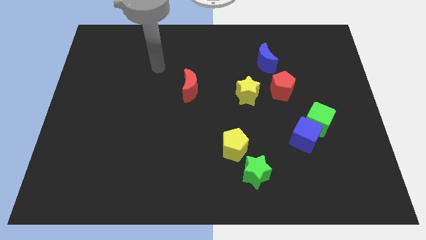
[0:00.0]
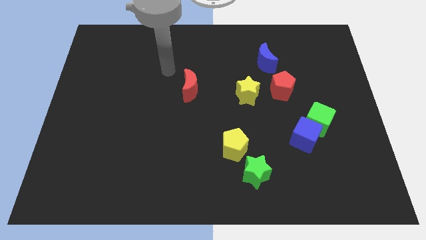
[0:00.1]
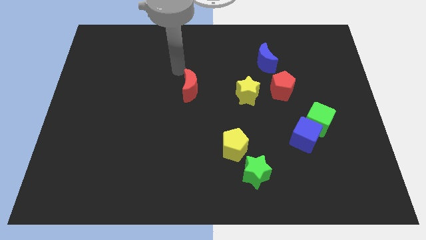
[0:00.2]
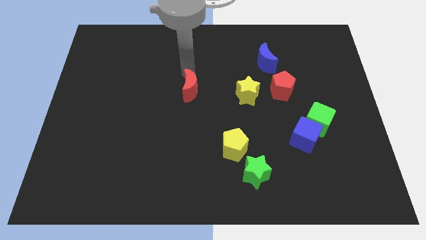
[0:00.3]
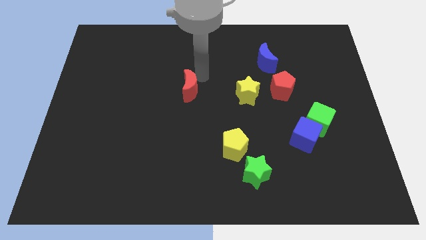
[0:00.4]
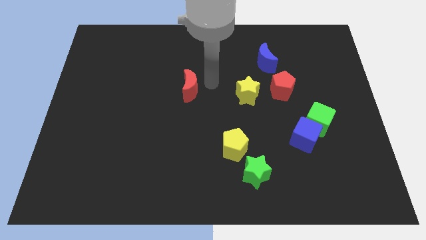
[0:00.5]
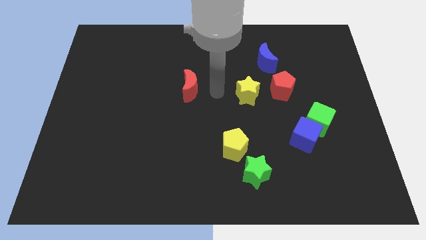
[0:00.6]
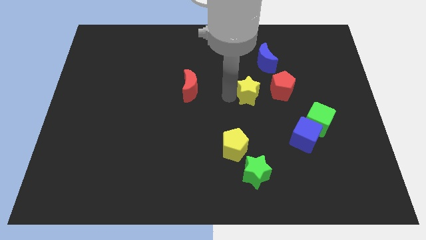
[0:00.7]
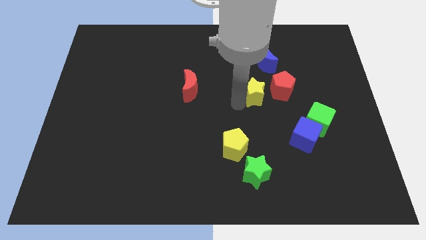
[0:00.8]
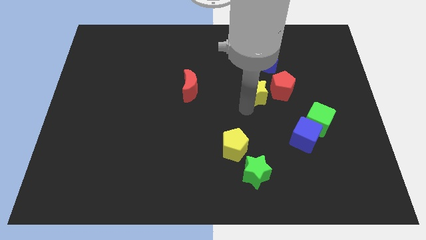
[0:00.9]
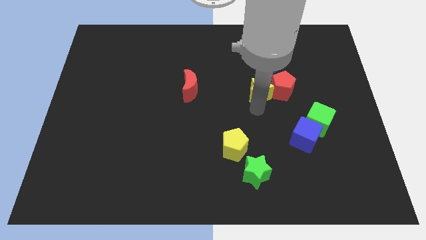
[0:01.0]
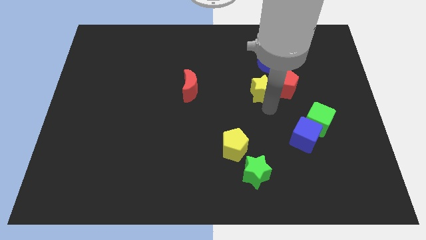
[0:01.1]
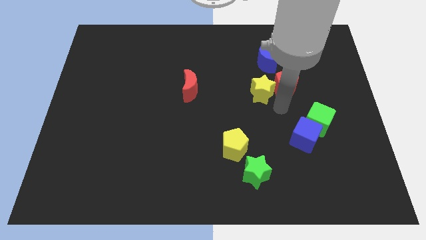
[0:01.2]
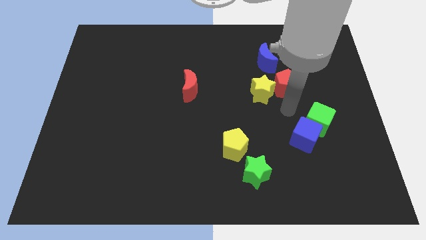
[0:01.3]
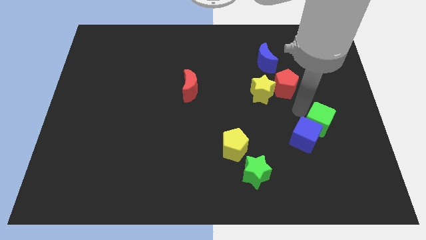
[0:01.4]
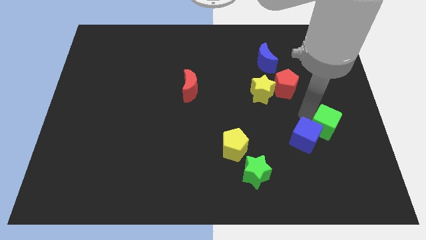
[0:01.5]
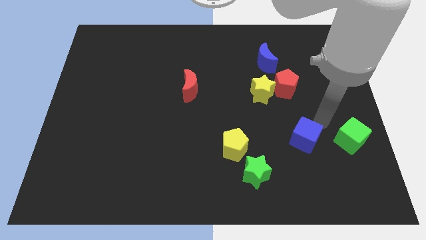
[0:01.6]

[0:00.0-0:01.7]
separate the blue cube from the green cube

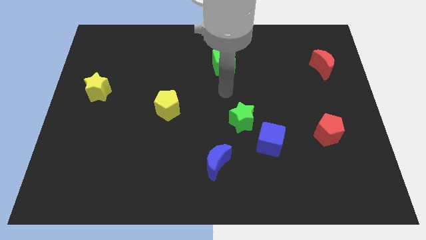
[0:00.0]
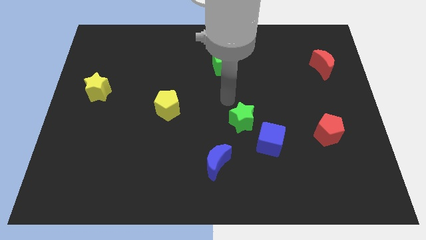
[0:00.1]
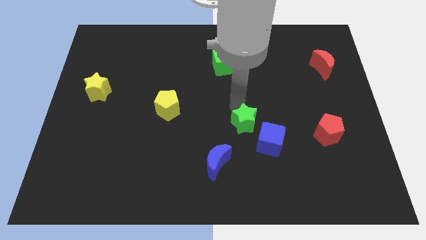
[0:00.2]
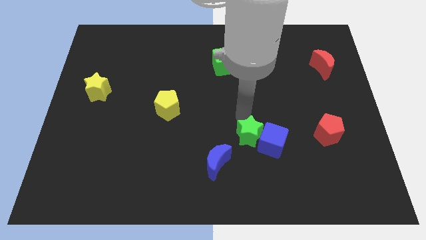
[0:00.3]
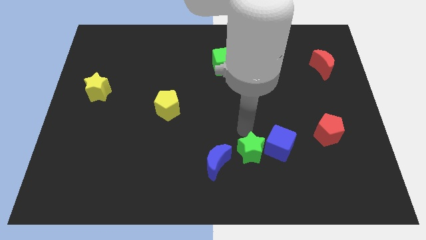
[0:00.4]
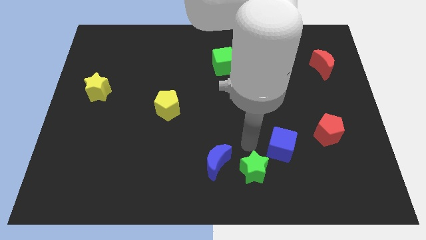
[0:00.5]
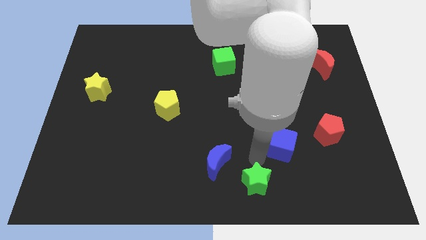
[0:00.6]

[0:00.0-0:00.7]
move the blue cube away from the green star

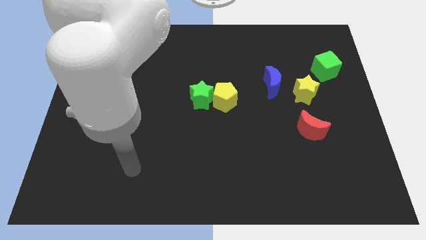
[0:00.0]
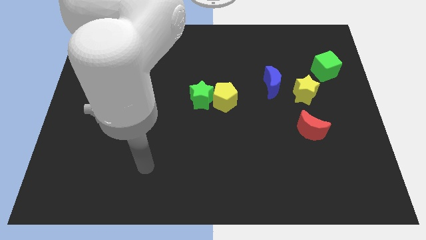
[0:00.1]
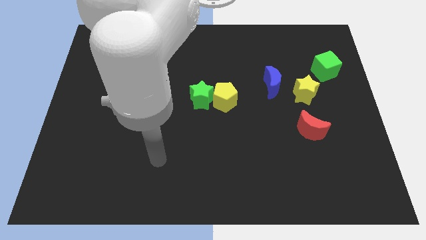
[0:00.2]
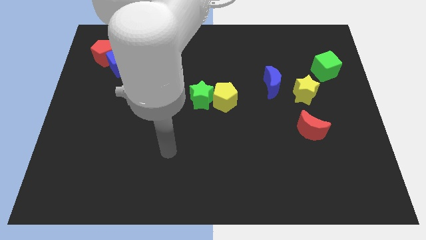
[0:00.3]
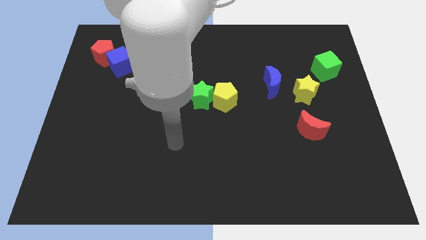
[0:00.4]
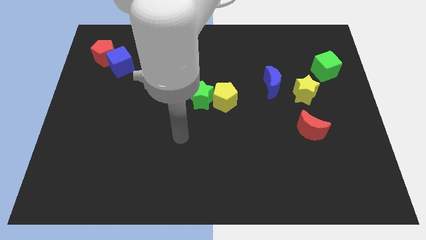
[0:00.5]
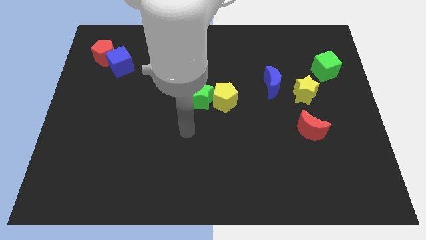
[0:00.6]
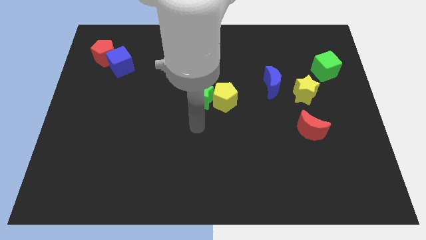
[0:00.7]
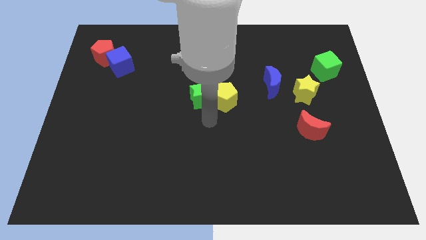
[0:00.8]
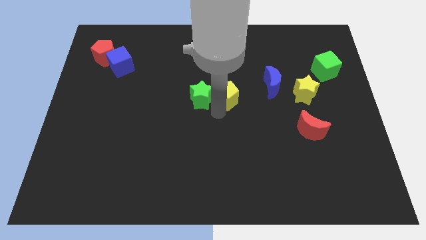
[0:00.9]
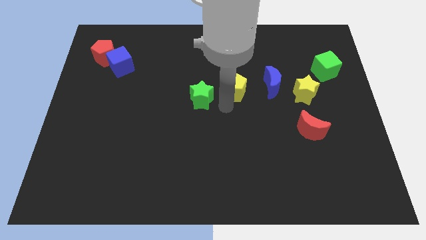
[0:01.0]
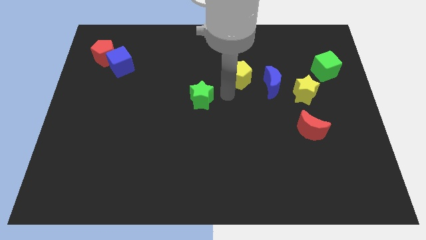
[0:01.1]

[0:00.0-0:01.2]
separate the green star from the yellow pentagon

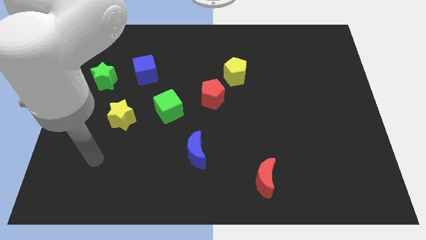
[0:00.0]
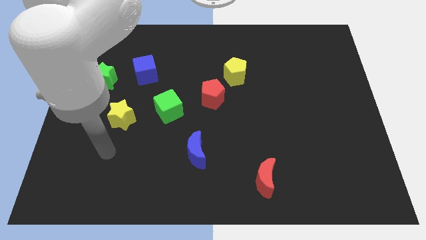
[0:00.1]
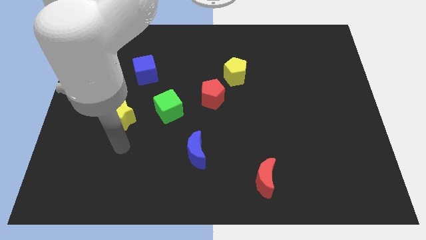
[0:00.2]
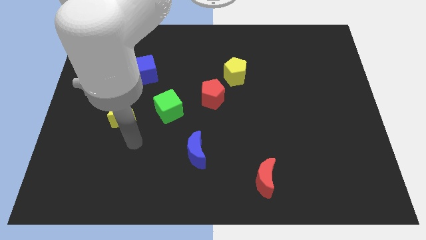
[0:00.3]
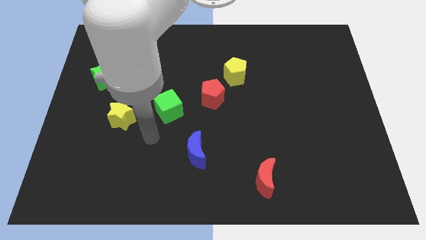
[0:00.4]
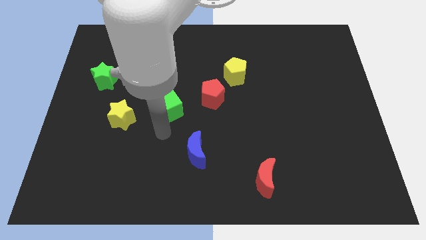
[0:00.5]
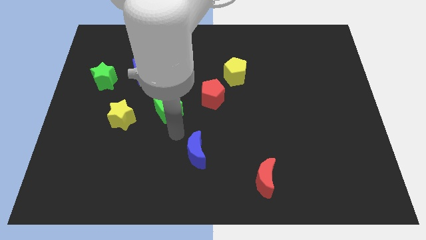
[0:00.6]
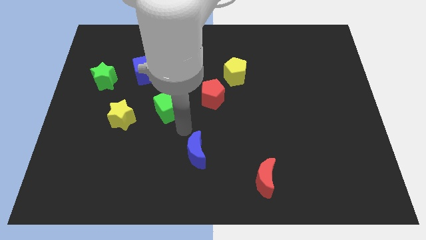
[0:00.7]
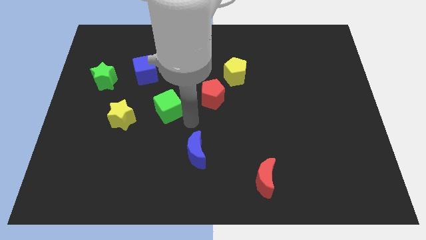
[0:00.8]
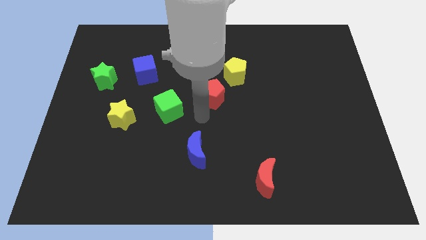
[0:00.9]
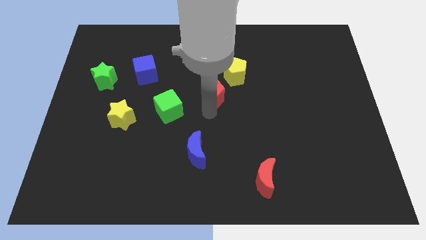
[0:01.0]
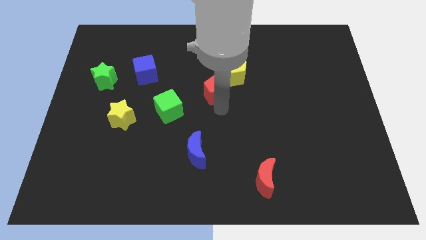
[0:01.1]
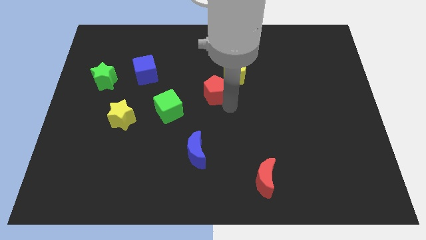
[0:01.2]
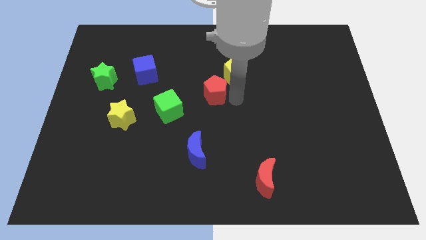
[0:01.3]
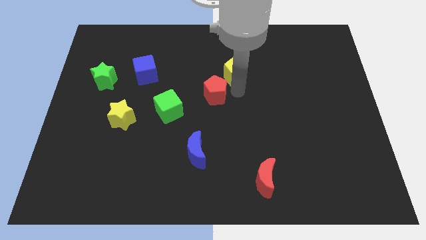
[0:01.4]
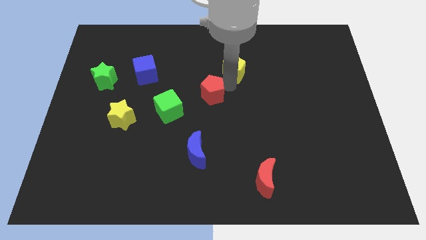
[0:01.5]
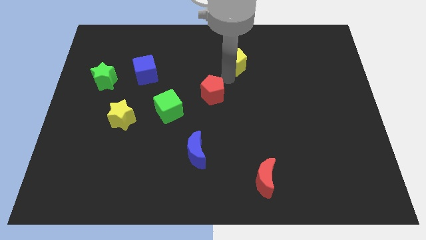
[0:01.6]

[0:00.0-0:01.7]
separate the red pentagon from the yellow pentagon

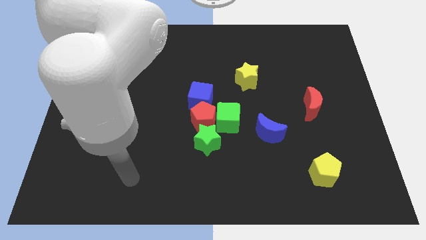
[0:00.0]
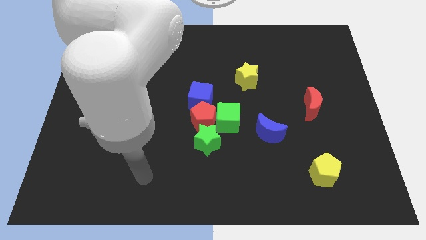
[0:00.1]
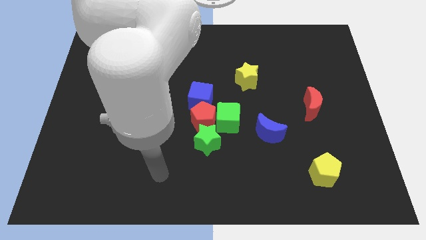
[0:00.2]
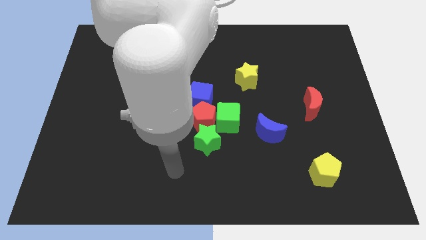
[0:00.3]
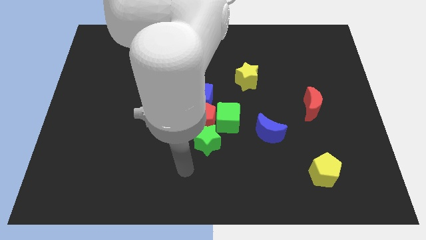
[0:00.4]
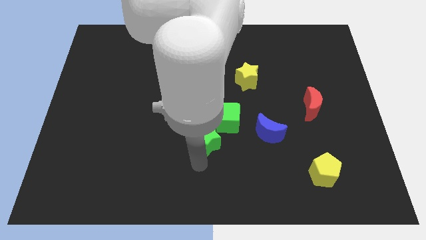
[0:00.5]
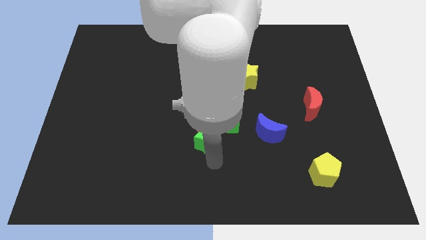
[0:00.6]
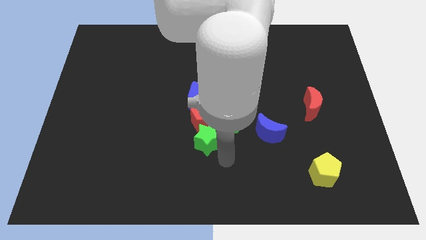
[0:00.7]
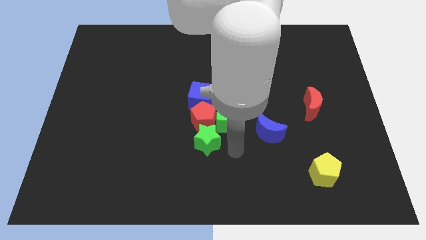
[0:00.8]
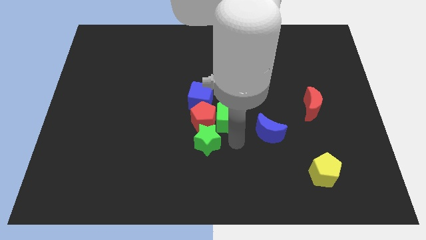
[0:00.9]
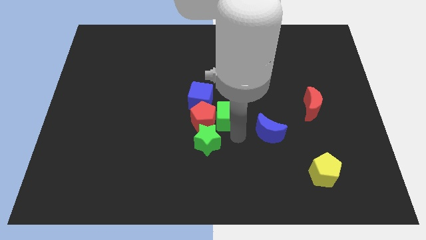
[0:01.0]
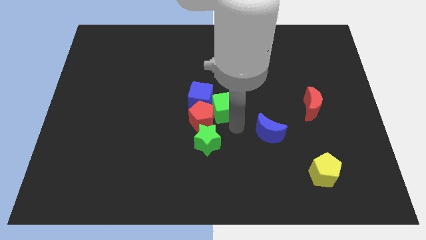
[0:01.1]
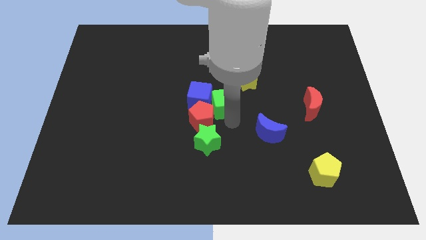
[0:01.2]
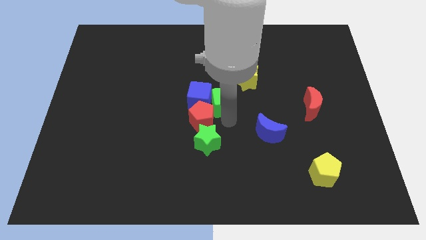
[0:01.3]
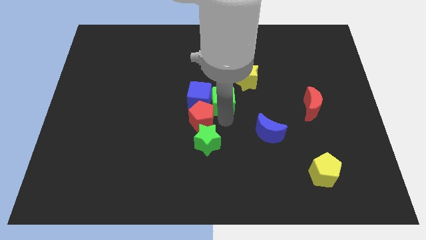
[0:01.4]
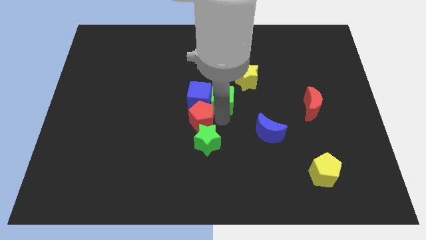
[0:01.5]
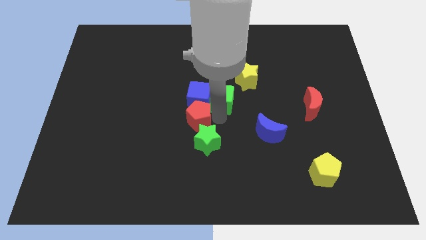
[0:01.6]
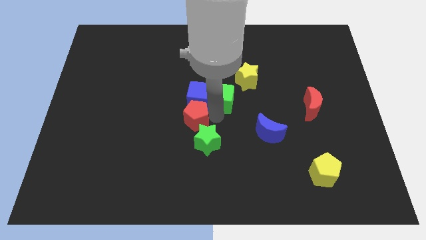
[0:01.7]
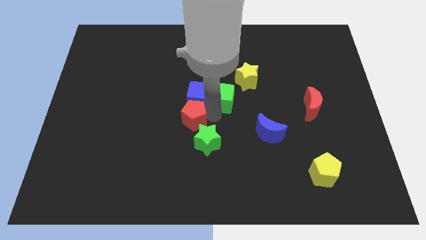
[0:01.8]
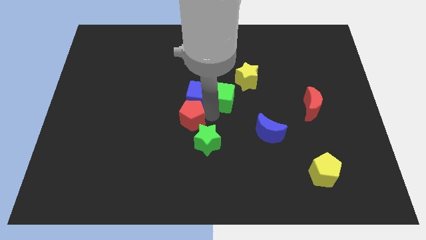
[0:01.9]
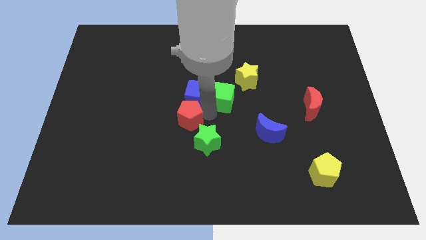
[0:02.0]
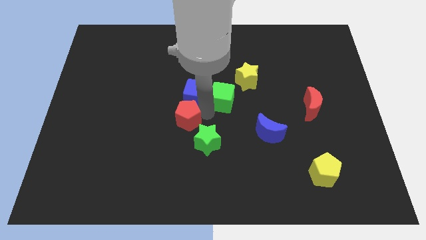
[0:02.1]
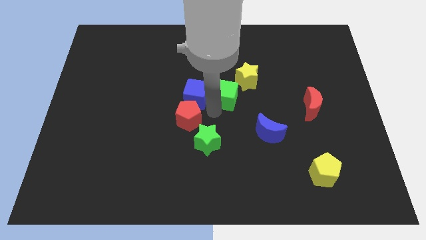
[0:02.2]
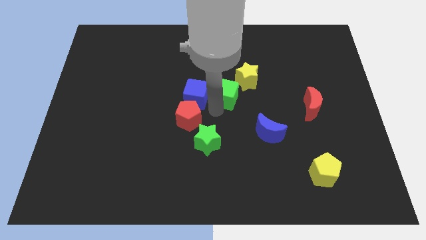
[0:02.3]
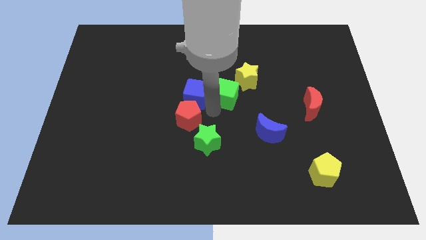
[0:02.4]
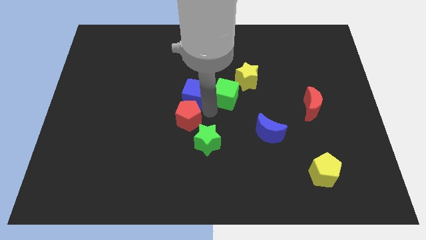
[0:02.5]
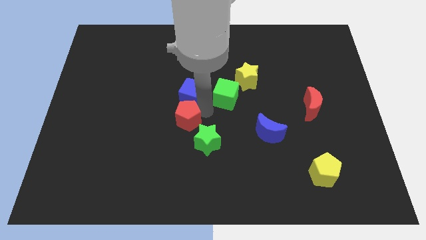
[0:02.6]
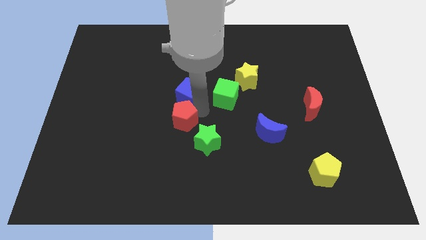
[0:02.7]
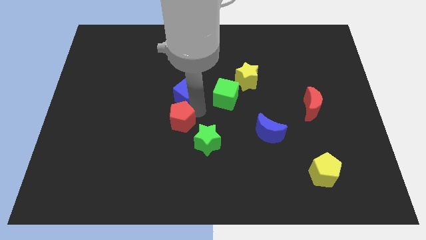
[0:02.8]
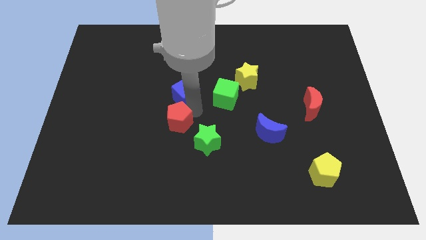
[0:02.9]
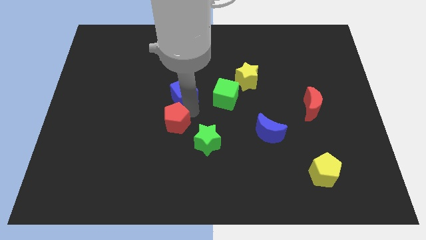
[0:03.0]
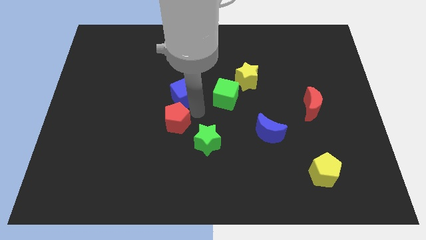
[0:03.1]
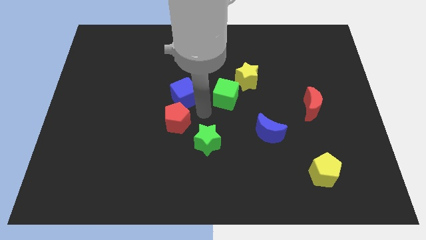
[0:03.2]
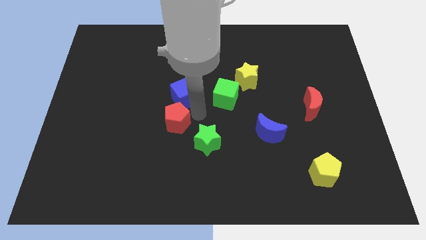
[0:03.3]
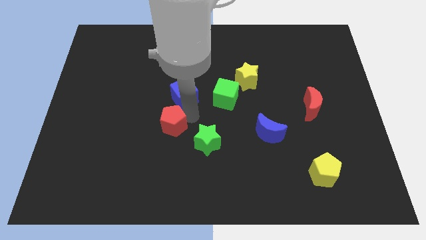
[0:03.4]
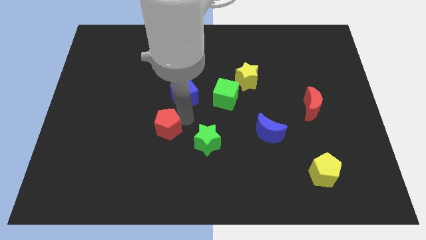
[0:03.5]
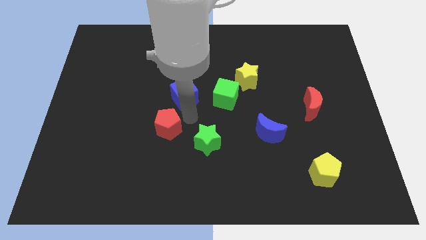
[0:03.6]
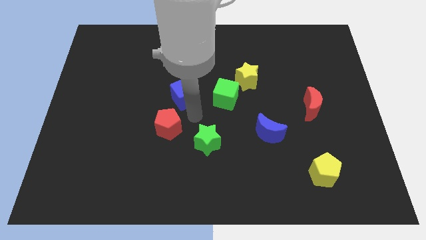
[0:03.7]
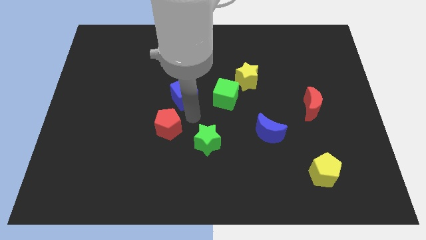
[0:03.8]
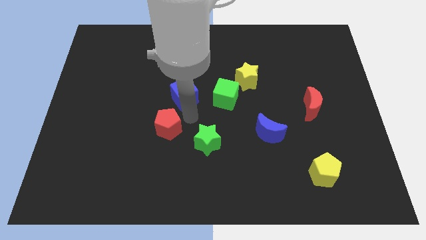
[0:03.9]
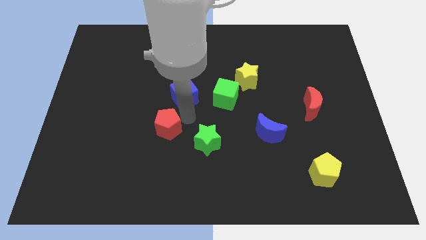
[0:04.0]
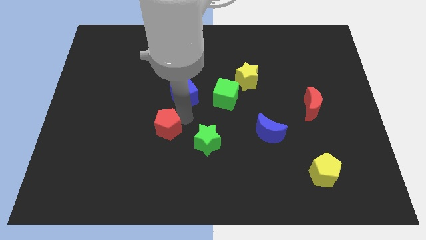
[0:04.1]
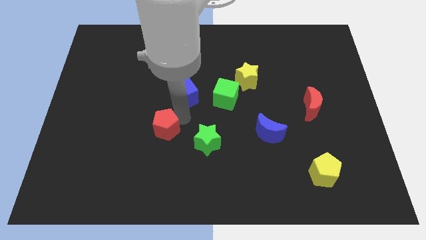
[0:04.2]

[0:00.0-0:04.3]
move the red pentagon away from the group
